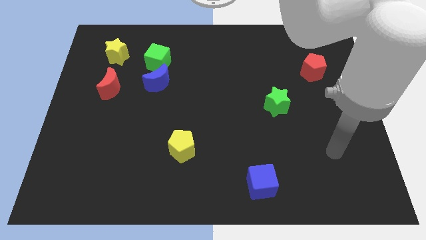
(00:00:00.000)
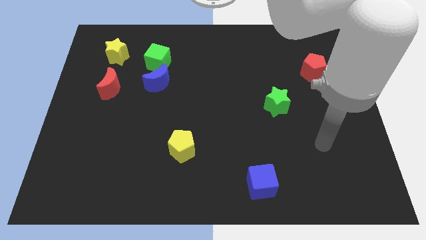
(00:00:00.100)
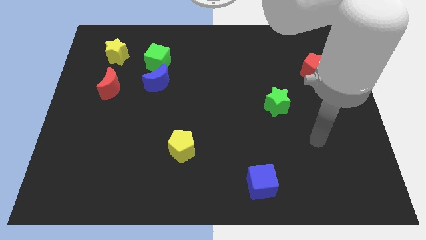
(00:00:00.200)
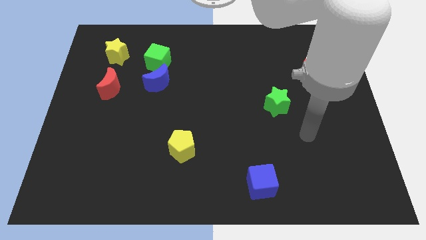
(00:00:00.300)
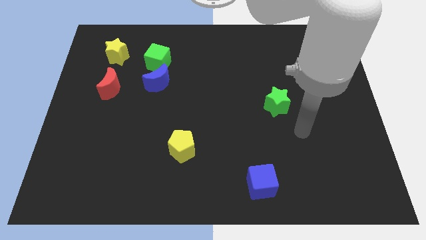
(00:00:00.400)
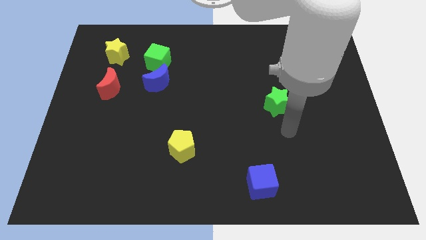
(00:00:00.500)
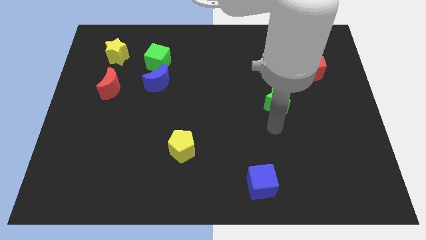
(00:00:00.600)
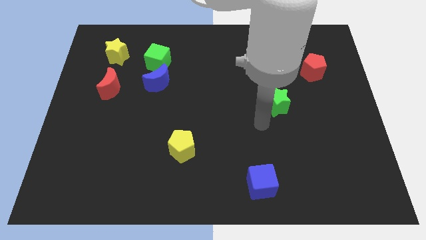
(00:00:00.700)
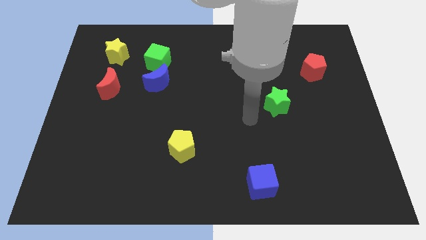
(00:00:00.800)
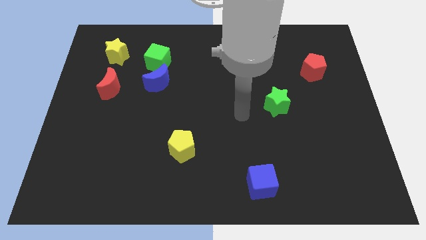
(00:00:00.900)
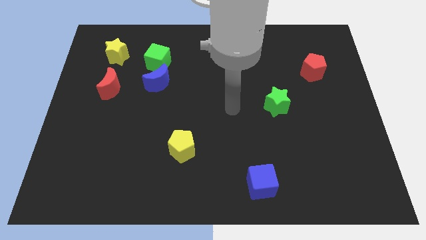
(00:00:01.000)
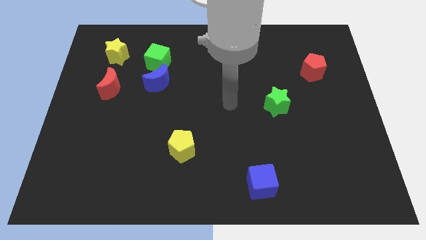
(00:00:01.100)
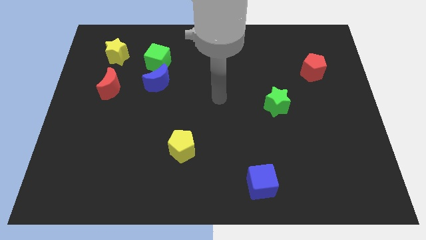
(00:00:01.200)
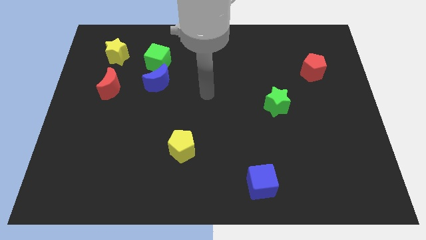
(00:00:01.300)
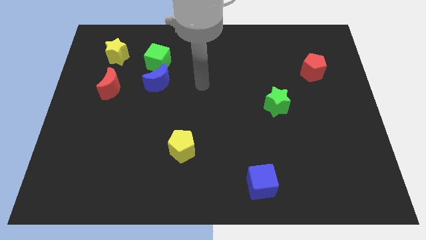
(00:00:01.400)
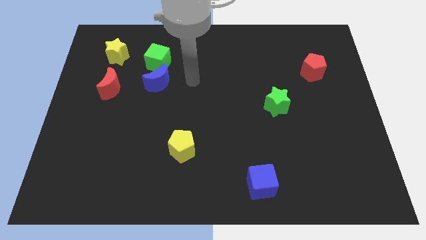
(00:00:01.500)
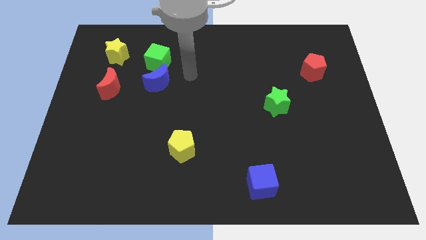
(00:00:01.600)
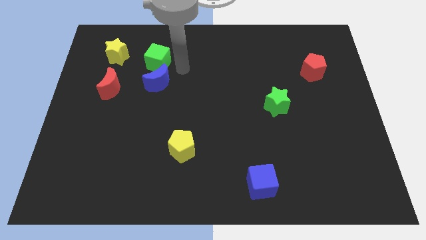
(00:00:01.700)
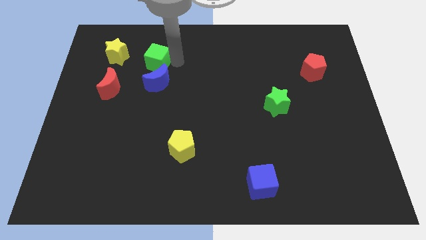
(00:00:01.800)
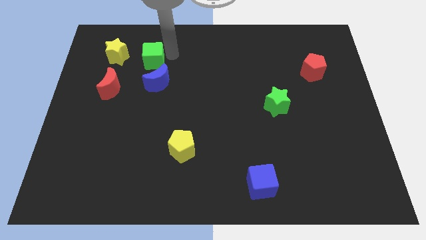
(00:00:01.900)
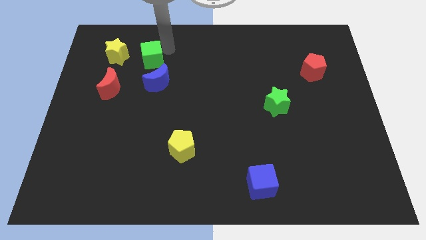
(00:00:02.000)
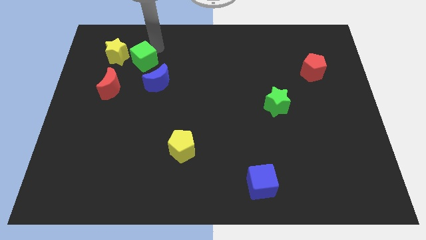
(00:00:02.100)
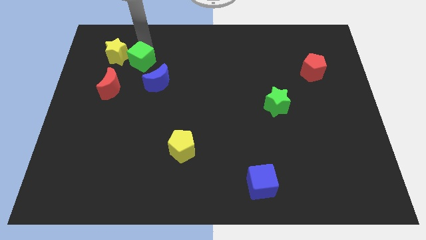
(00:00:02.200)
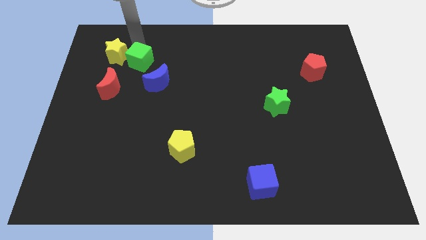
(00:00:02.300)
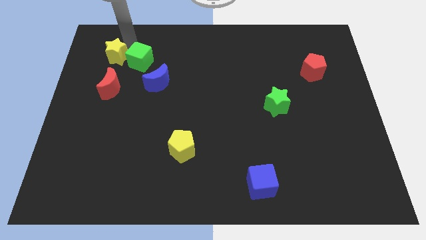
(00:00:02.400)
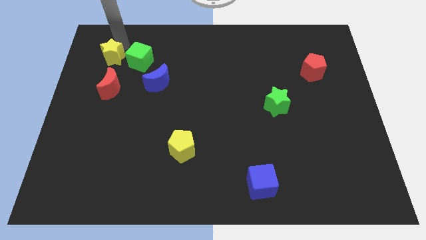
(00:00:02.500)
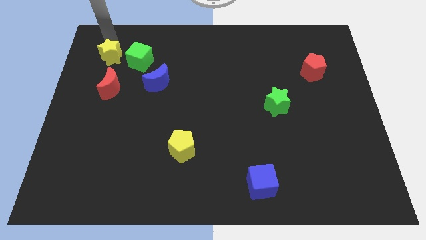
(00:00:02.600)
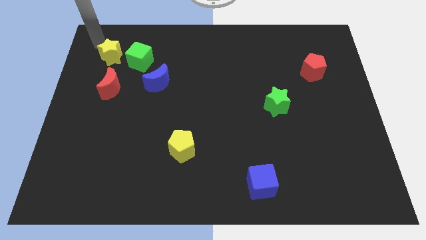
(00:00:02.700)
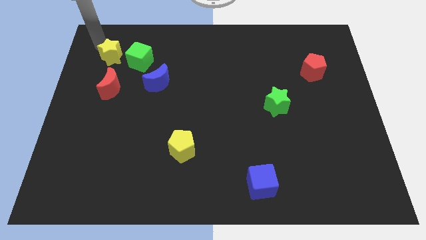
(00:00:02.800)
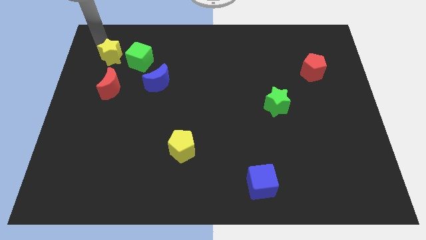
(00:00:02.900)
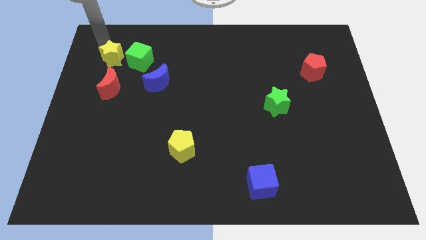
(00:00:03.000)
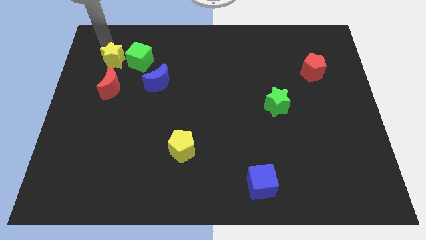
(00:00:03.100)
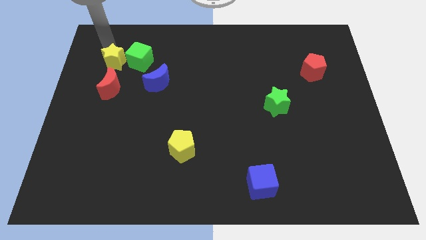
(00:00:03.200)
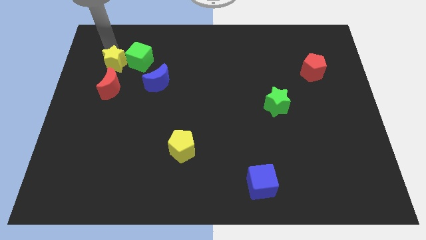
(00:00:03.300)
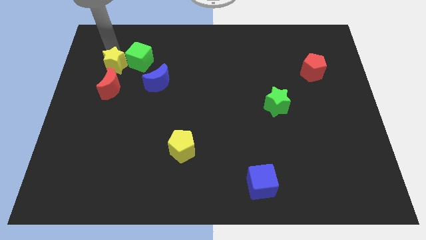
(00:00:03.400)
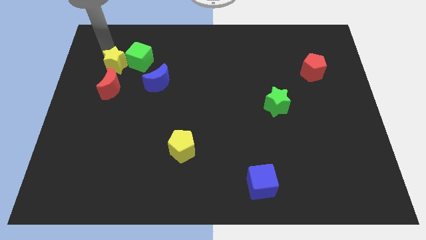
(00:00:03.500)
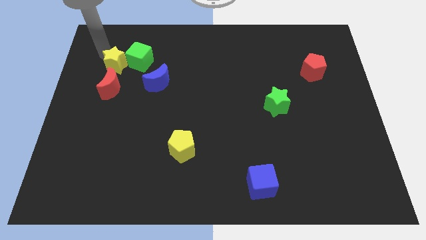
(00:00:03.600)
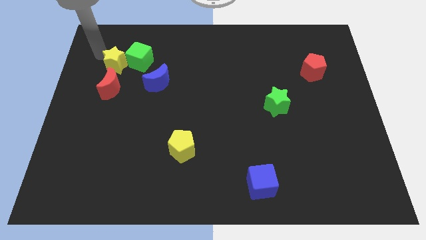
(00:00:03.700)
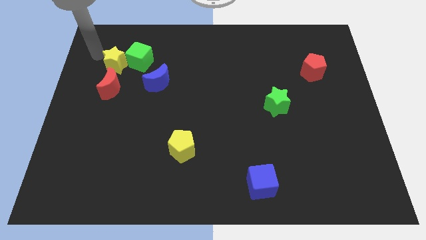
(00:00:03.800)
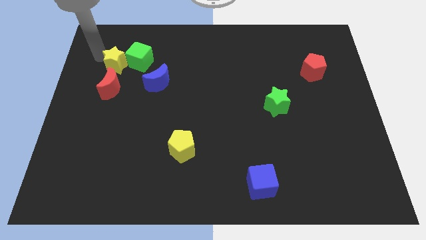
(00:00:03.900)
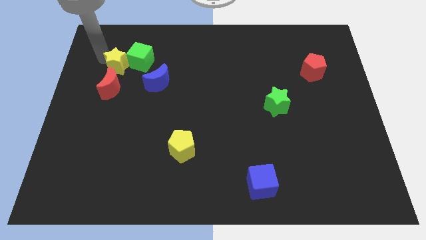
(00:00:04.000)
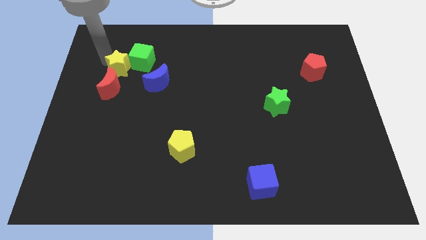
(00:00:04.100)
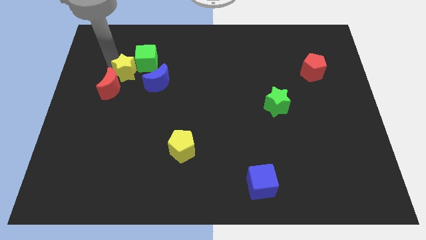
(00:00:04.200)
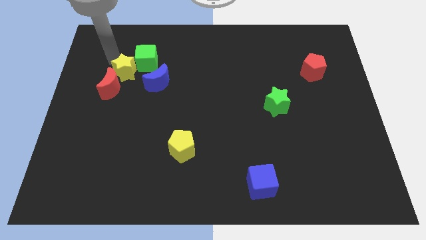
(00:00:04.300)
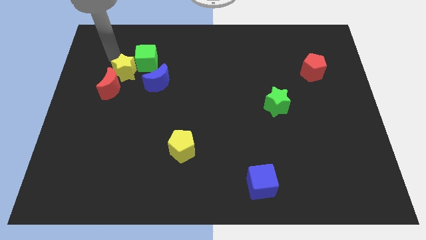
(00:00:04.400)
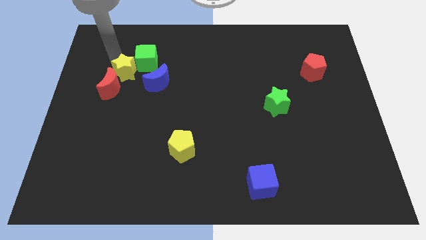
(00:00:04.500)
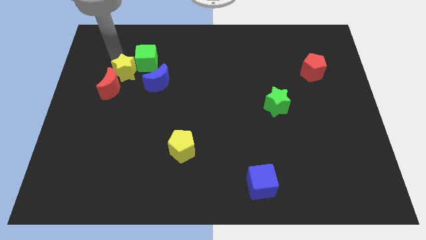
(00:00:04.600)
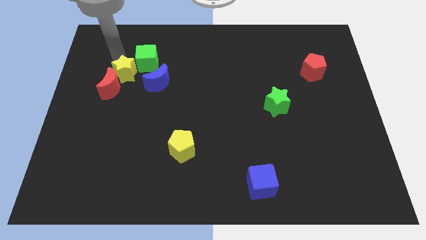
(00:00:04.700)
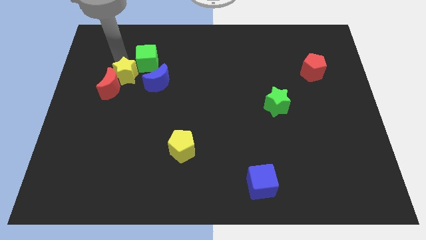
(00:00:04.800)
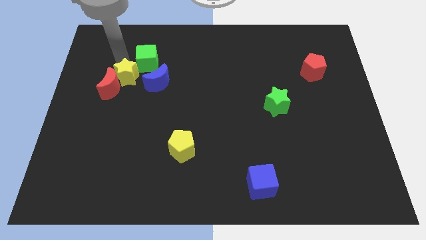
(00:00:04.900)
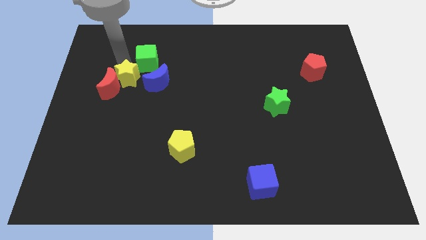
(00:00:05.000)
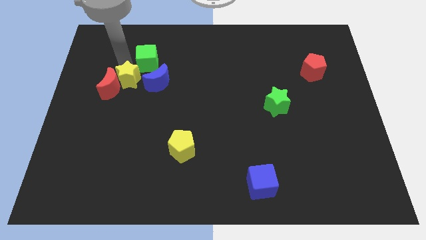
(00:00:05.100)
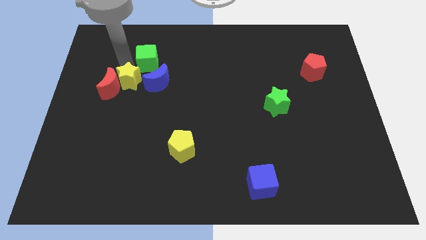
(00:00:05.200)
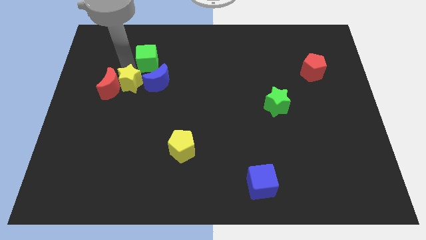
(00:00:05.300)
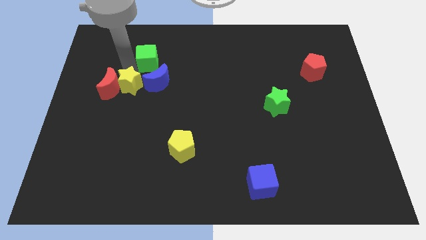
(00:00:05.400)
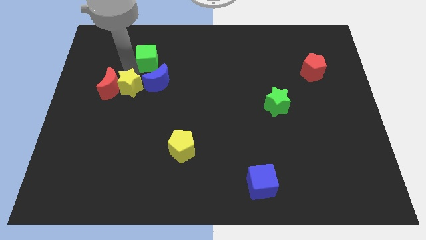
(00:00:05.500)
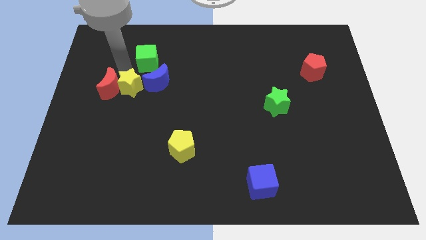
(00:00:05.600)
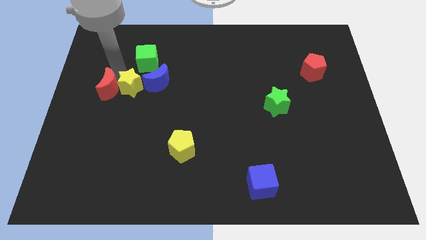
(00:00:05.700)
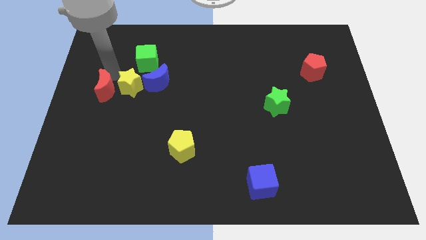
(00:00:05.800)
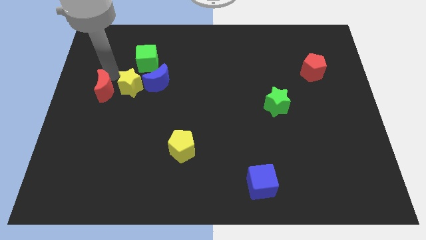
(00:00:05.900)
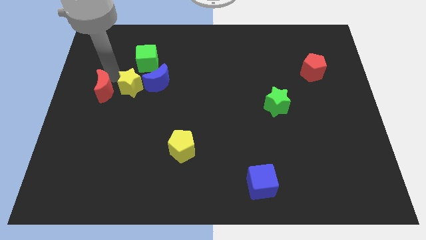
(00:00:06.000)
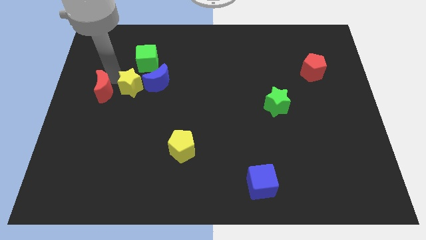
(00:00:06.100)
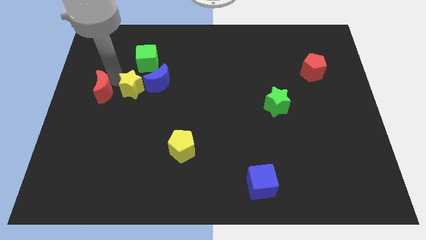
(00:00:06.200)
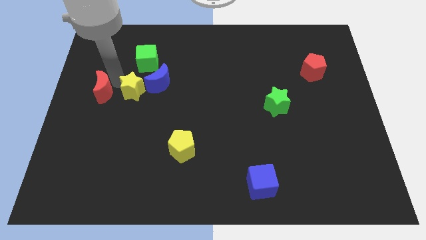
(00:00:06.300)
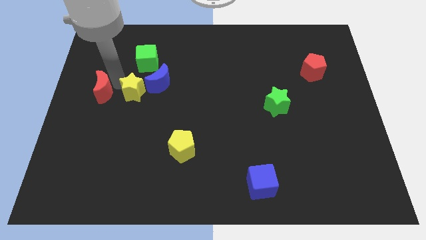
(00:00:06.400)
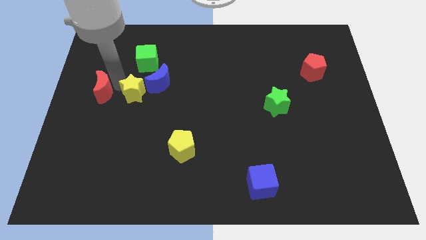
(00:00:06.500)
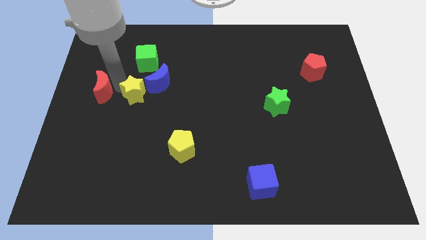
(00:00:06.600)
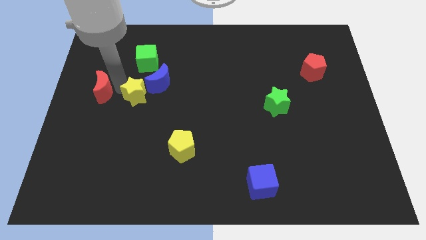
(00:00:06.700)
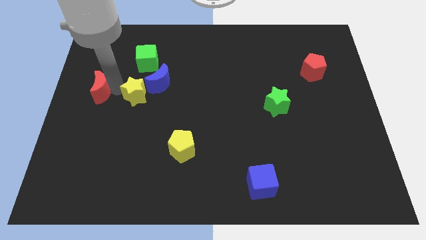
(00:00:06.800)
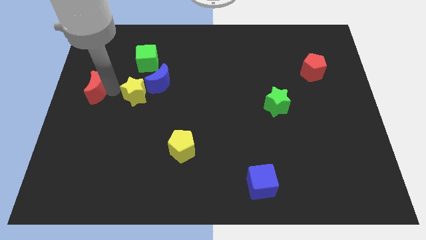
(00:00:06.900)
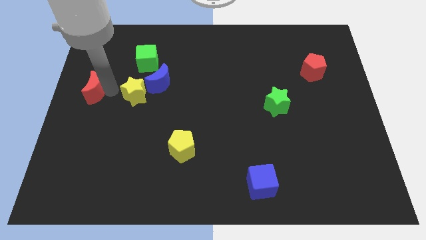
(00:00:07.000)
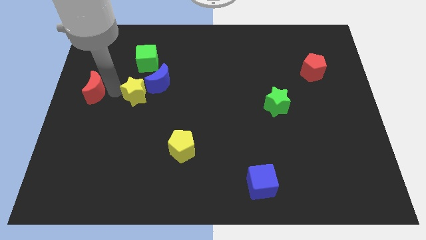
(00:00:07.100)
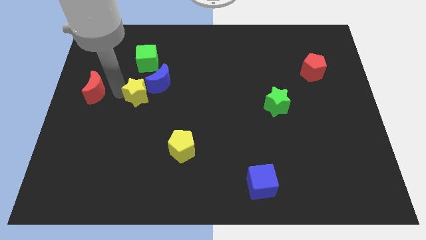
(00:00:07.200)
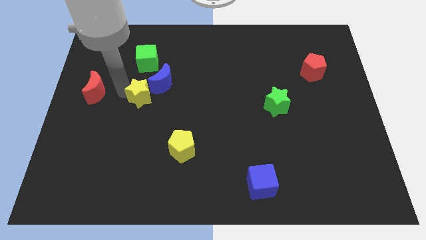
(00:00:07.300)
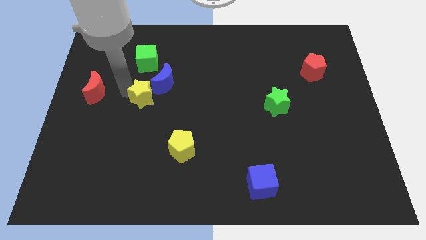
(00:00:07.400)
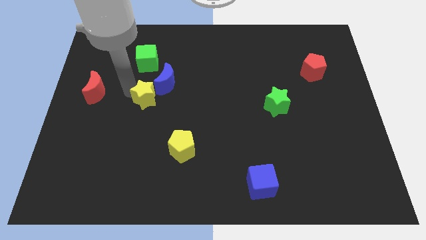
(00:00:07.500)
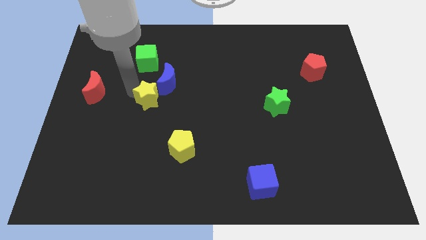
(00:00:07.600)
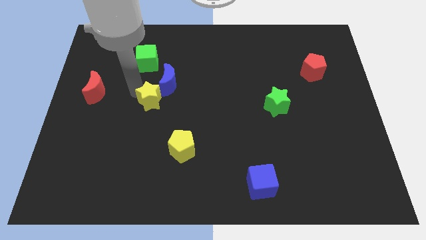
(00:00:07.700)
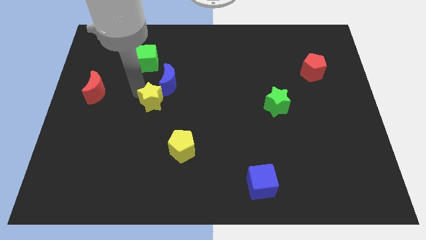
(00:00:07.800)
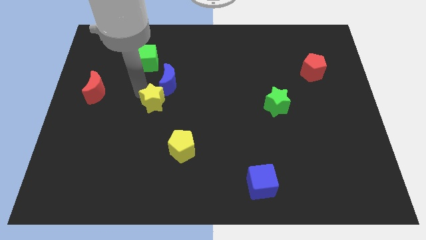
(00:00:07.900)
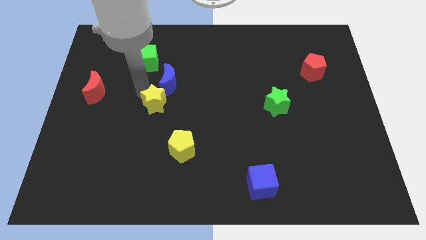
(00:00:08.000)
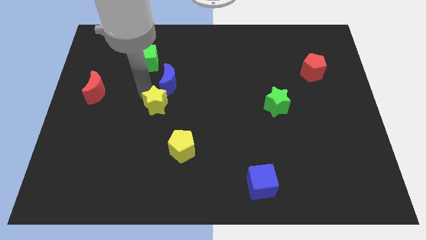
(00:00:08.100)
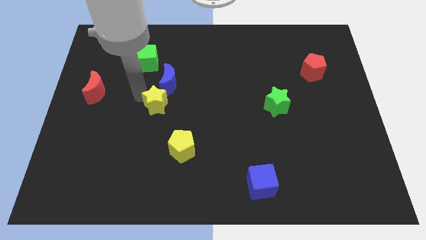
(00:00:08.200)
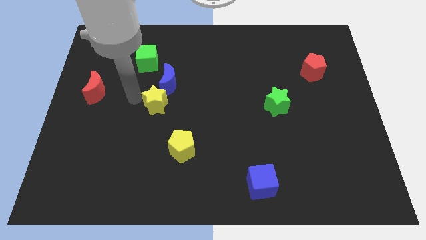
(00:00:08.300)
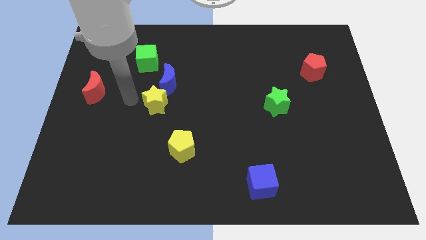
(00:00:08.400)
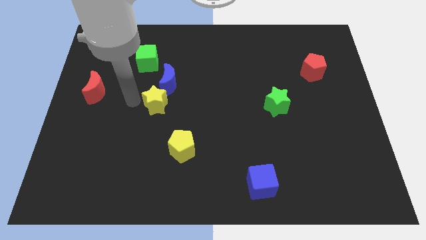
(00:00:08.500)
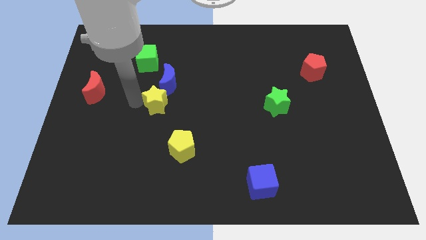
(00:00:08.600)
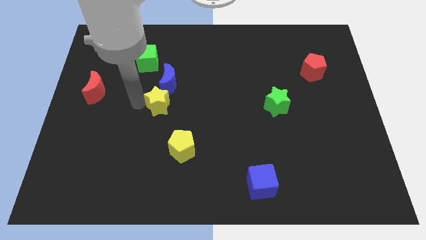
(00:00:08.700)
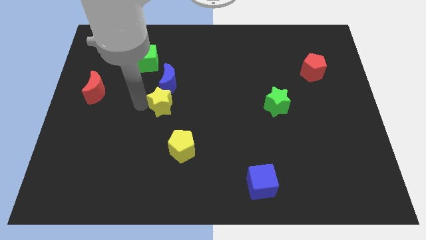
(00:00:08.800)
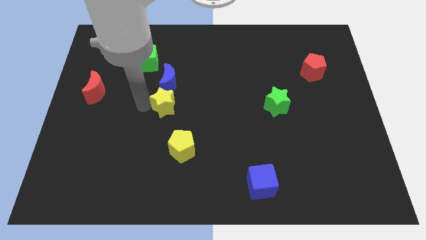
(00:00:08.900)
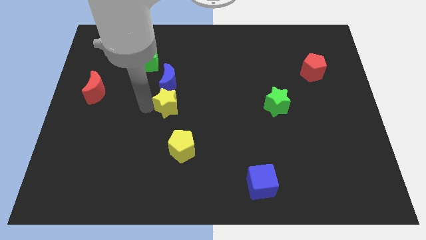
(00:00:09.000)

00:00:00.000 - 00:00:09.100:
push the yellow star to the top of the yellow pentagon
